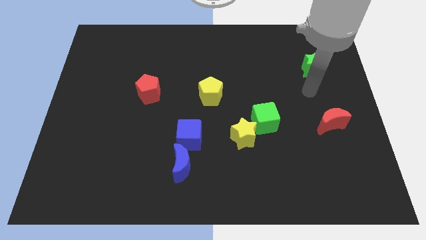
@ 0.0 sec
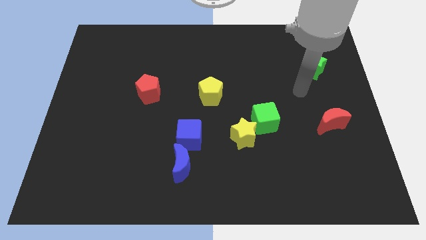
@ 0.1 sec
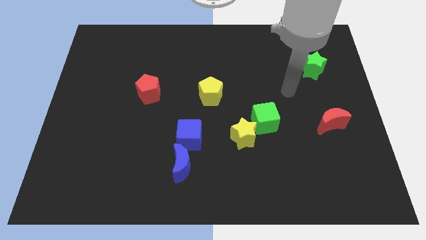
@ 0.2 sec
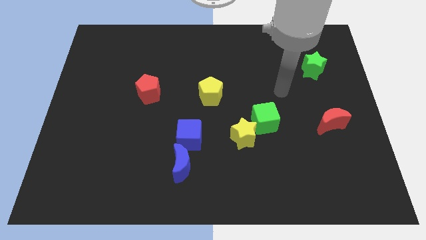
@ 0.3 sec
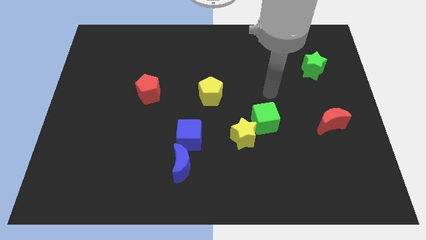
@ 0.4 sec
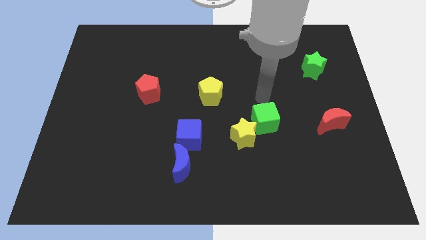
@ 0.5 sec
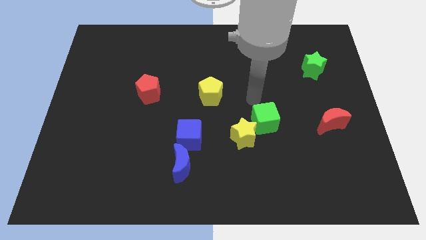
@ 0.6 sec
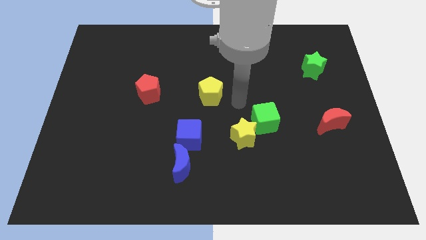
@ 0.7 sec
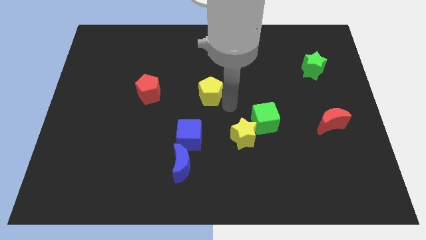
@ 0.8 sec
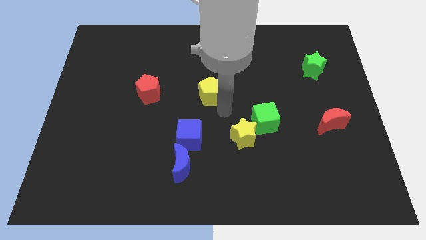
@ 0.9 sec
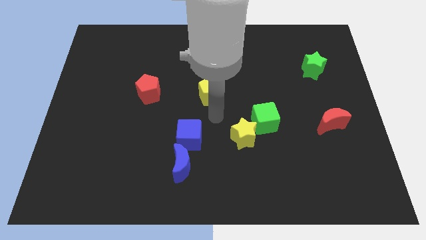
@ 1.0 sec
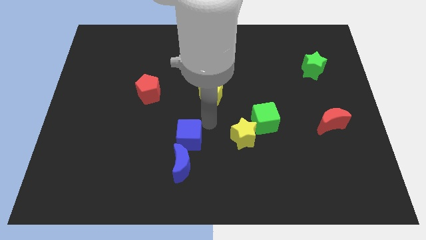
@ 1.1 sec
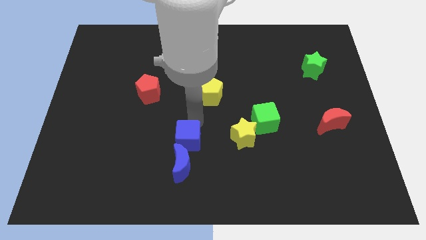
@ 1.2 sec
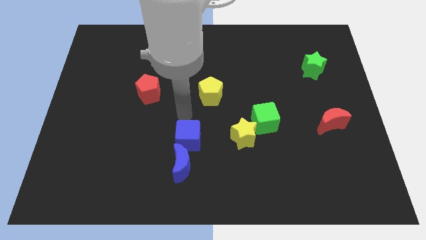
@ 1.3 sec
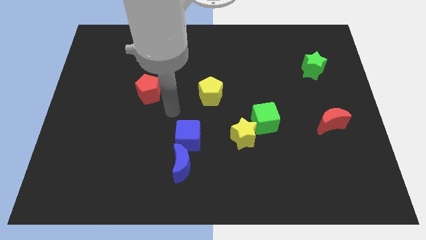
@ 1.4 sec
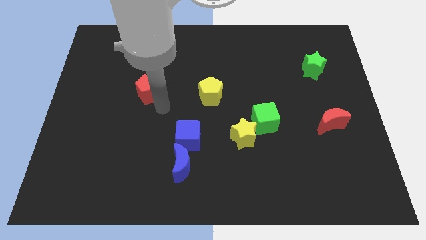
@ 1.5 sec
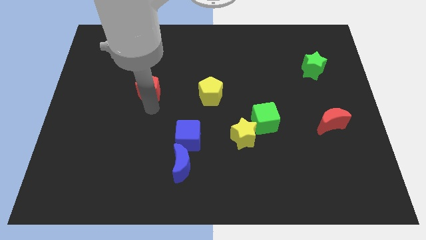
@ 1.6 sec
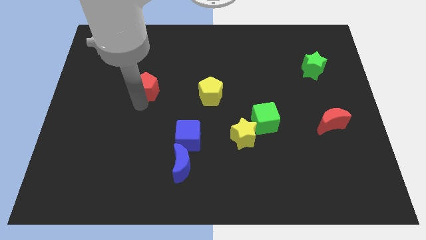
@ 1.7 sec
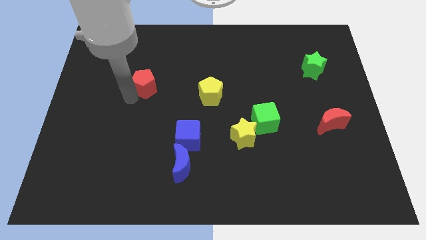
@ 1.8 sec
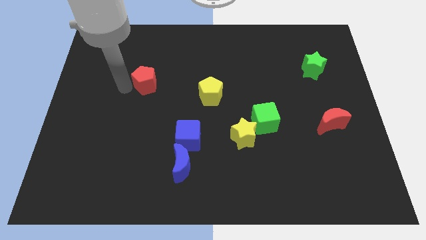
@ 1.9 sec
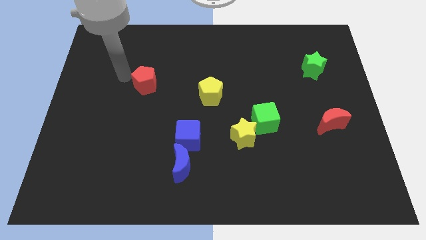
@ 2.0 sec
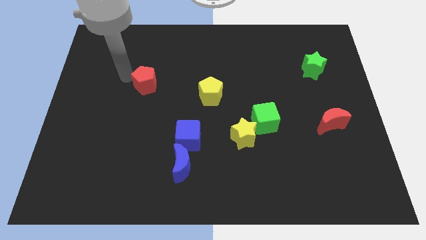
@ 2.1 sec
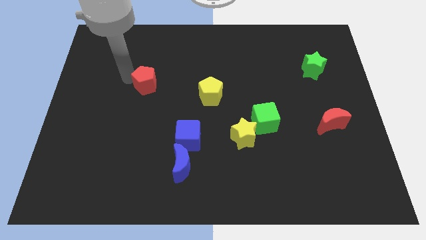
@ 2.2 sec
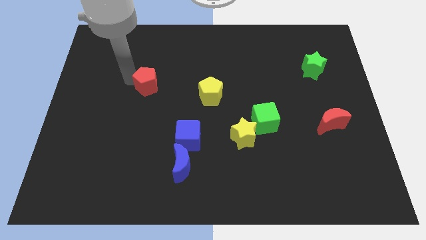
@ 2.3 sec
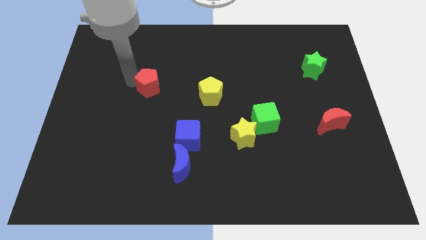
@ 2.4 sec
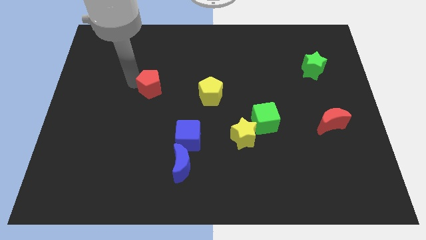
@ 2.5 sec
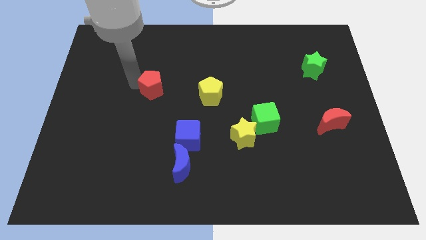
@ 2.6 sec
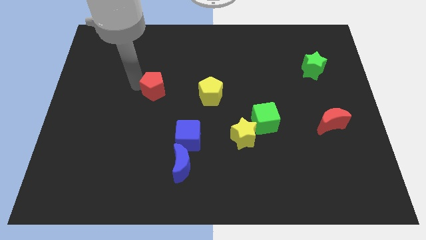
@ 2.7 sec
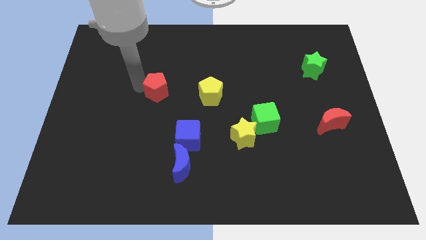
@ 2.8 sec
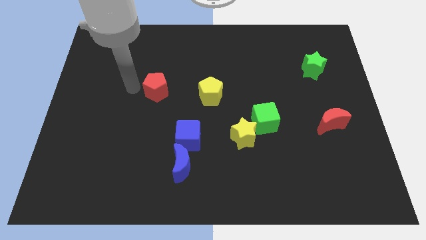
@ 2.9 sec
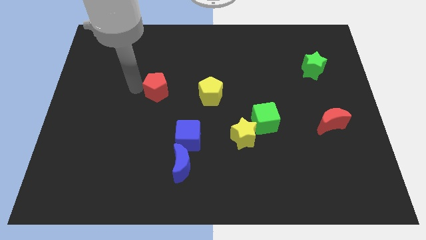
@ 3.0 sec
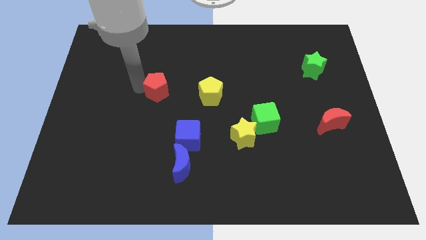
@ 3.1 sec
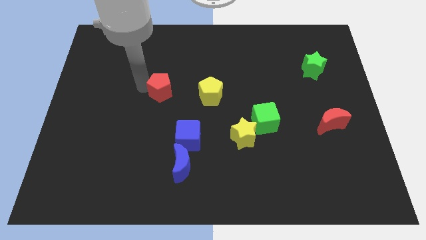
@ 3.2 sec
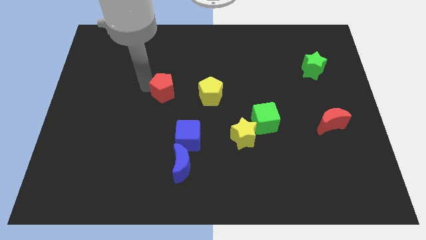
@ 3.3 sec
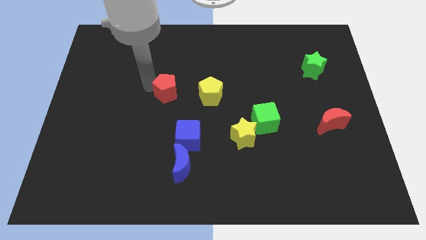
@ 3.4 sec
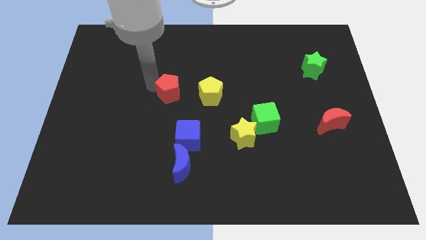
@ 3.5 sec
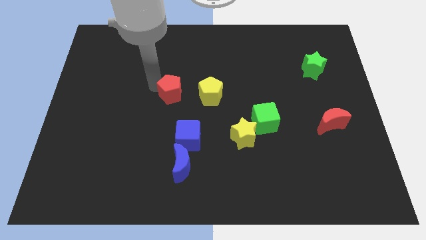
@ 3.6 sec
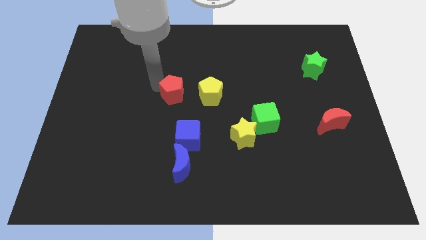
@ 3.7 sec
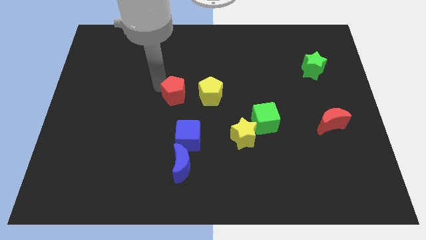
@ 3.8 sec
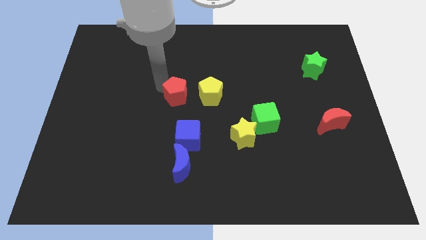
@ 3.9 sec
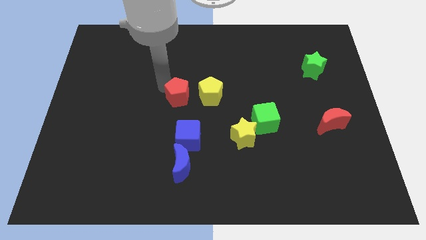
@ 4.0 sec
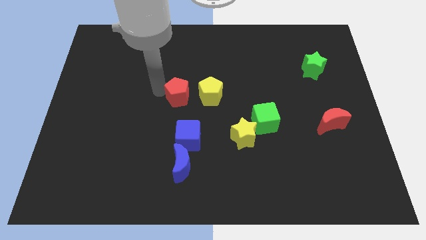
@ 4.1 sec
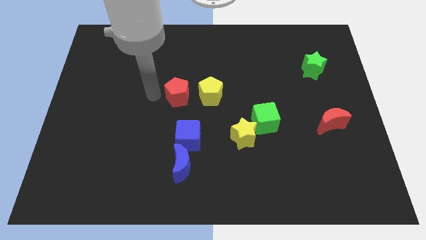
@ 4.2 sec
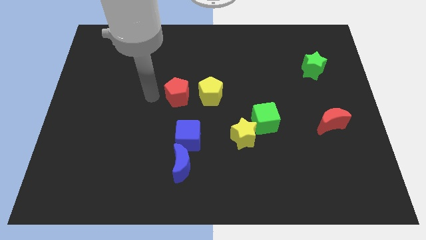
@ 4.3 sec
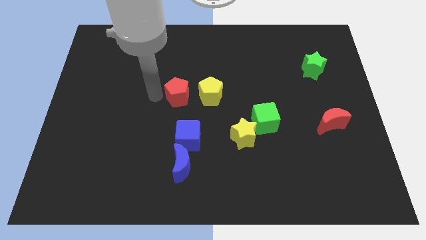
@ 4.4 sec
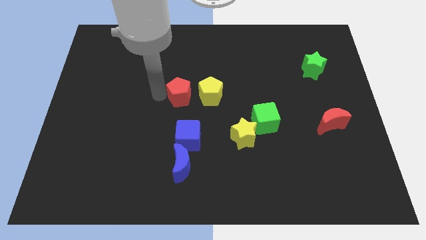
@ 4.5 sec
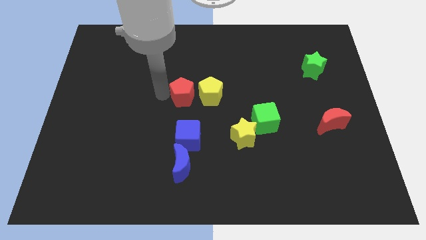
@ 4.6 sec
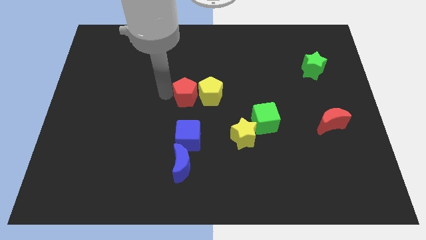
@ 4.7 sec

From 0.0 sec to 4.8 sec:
put the red pentagon close to the yellow pentagon

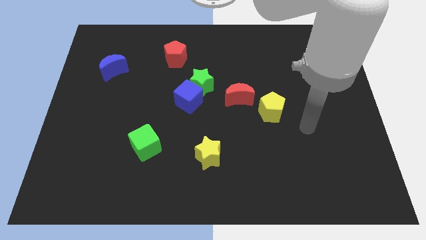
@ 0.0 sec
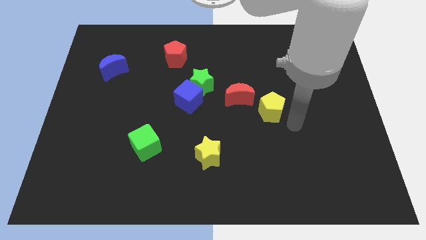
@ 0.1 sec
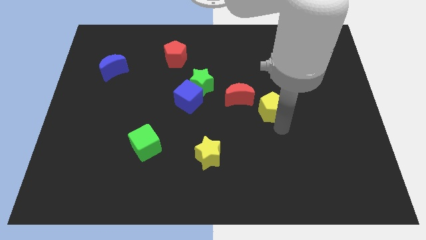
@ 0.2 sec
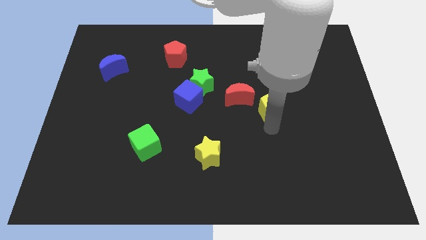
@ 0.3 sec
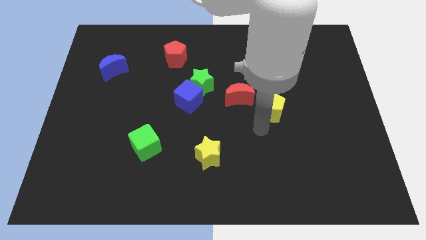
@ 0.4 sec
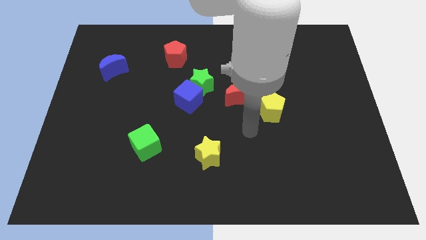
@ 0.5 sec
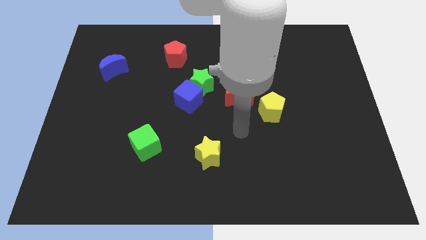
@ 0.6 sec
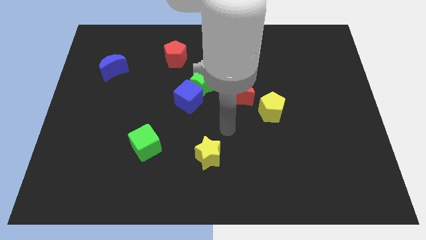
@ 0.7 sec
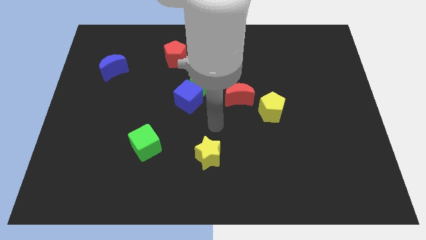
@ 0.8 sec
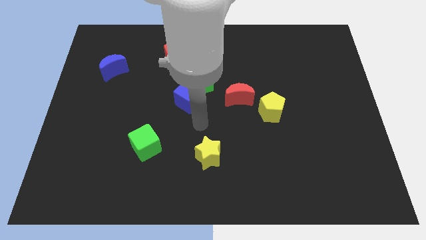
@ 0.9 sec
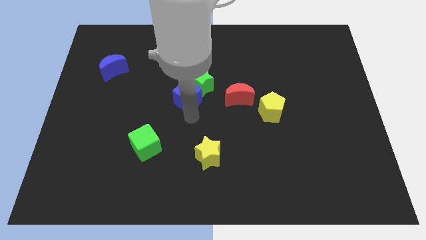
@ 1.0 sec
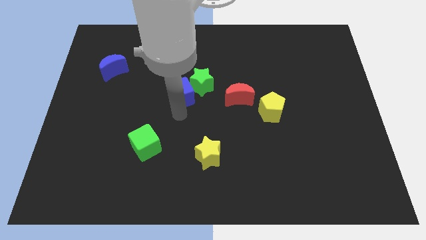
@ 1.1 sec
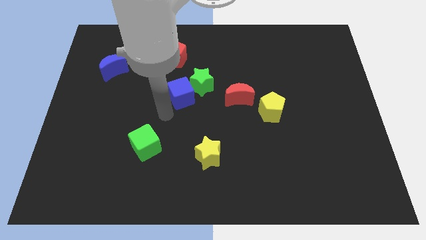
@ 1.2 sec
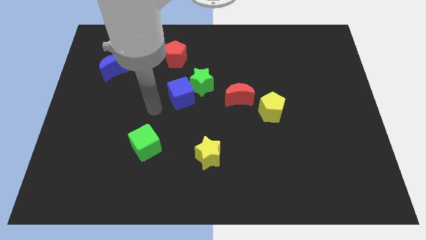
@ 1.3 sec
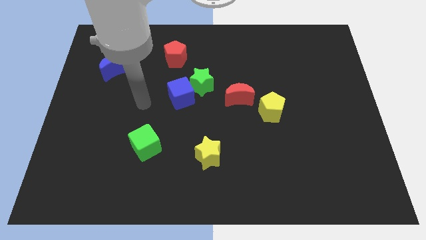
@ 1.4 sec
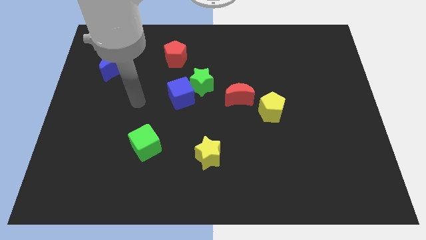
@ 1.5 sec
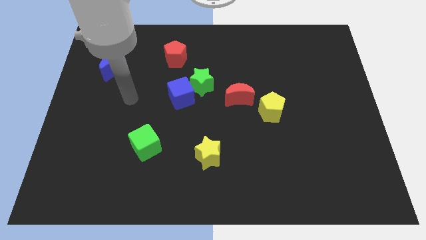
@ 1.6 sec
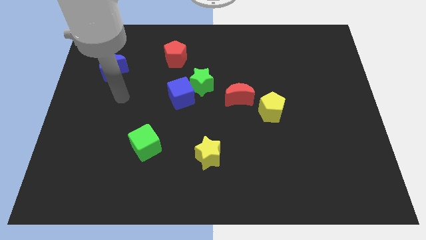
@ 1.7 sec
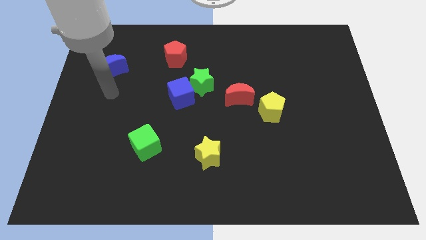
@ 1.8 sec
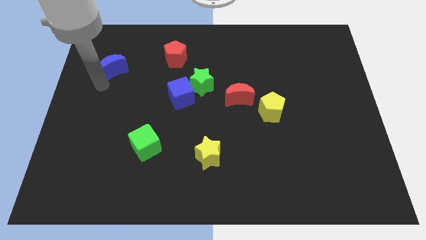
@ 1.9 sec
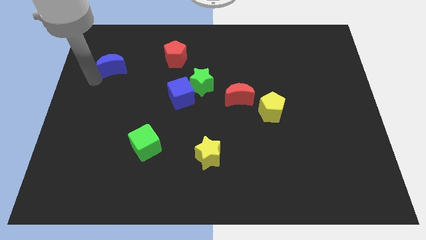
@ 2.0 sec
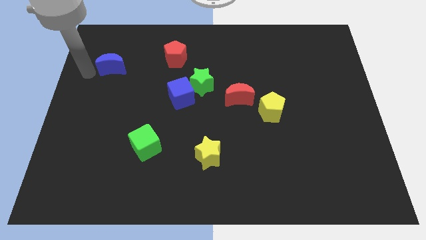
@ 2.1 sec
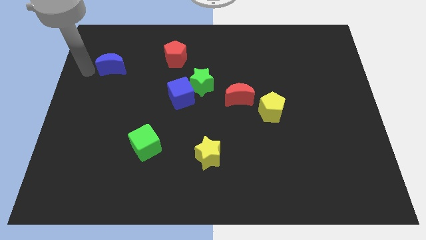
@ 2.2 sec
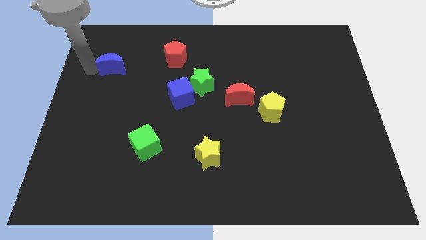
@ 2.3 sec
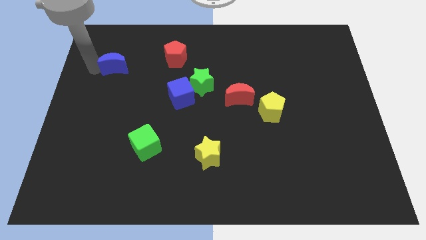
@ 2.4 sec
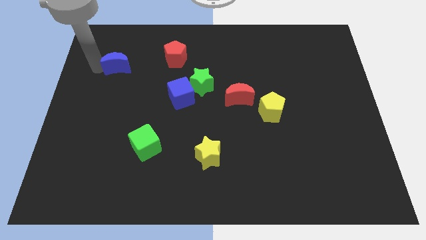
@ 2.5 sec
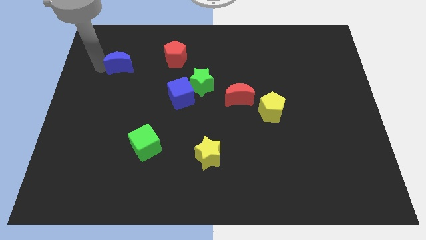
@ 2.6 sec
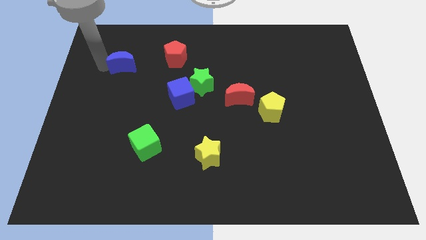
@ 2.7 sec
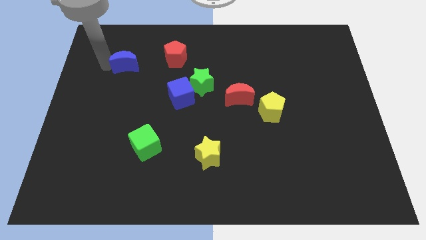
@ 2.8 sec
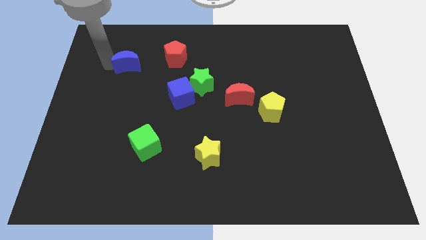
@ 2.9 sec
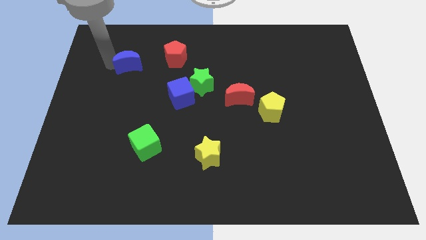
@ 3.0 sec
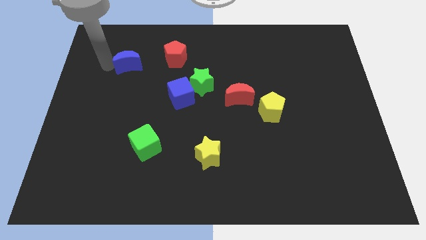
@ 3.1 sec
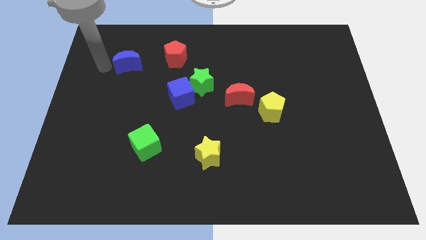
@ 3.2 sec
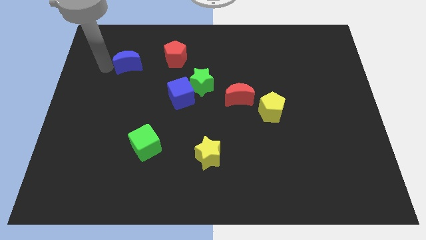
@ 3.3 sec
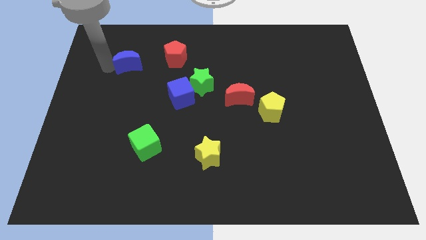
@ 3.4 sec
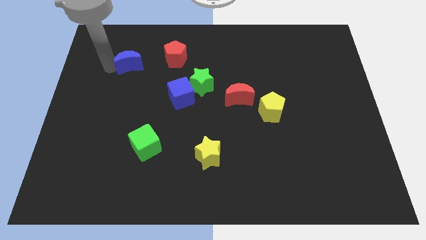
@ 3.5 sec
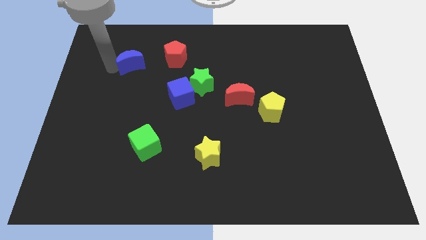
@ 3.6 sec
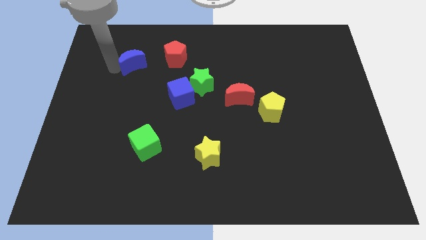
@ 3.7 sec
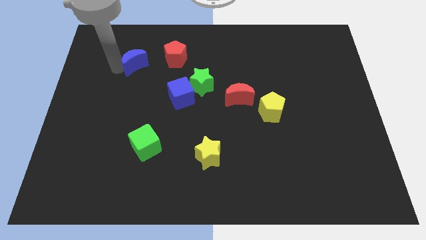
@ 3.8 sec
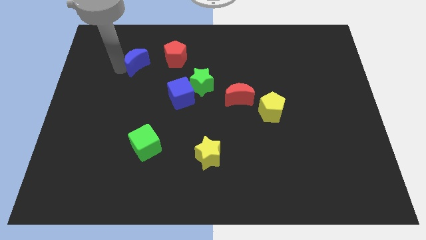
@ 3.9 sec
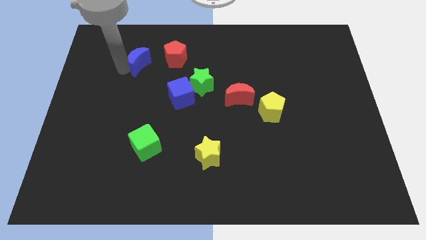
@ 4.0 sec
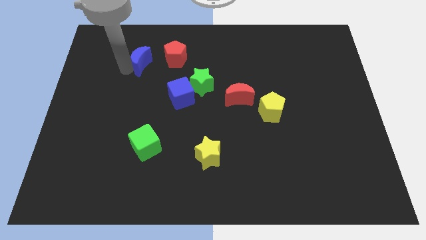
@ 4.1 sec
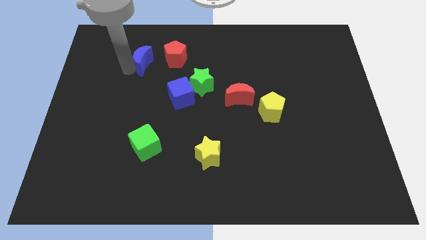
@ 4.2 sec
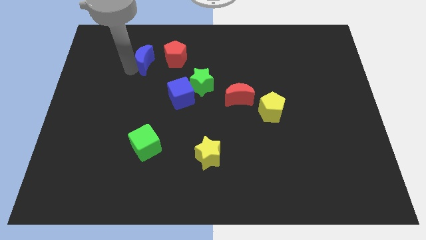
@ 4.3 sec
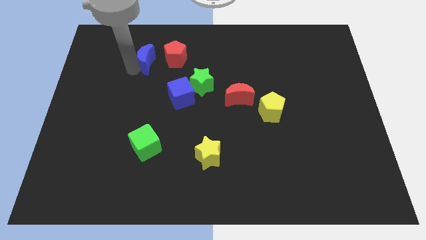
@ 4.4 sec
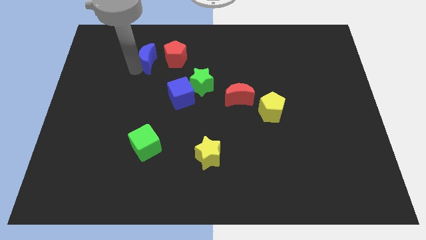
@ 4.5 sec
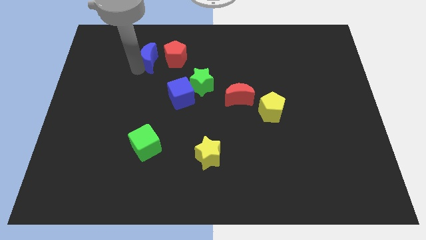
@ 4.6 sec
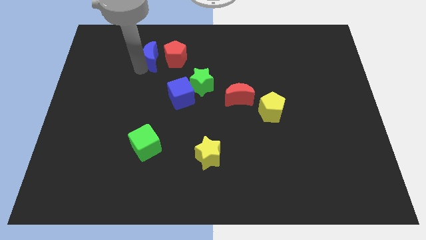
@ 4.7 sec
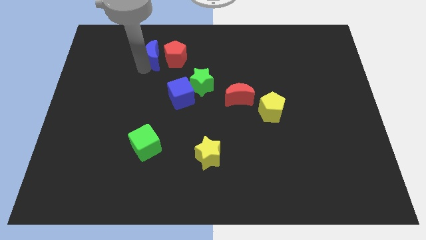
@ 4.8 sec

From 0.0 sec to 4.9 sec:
move the blue moon next to the red pentagon
